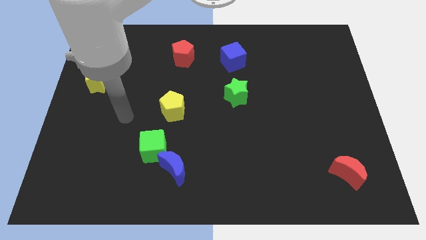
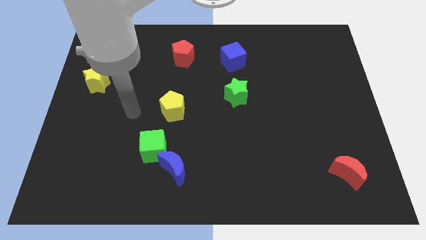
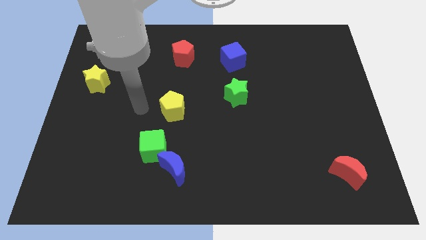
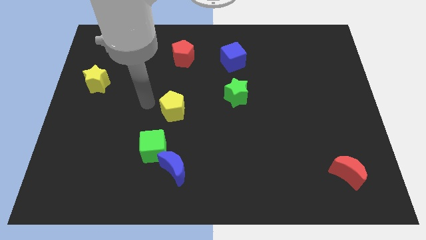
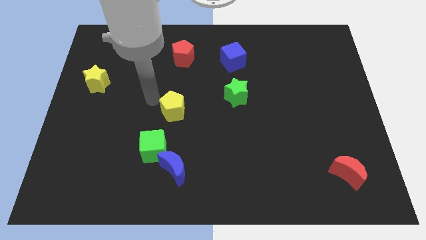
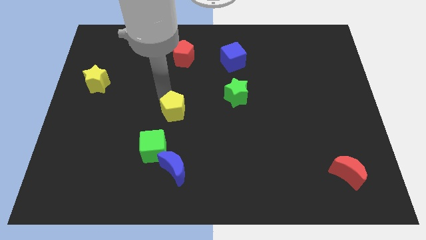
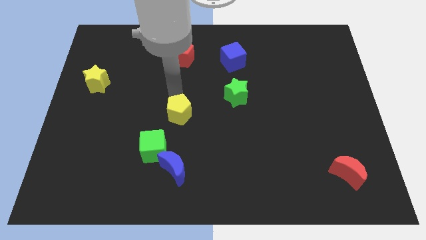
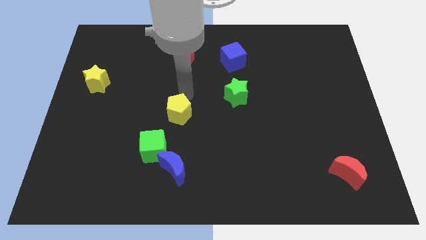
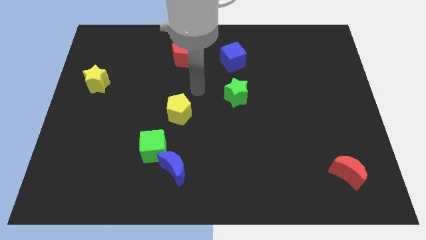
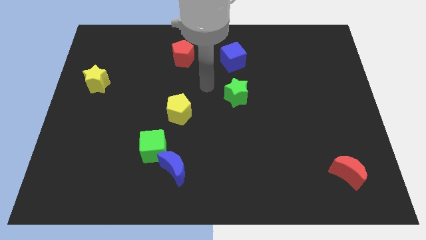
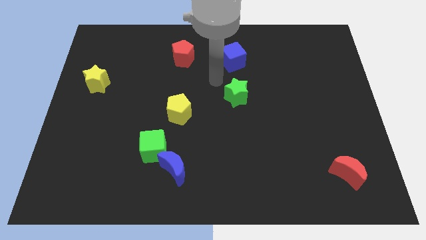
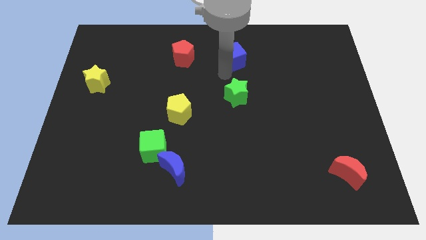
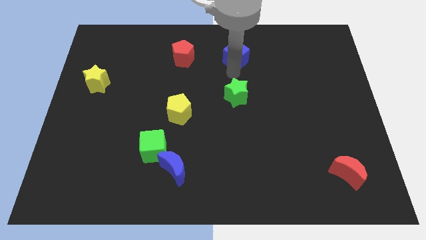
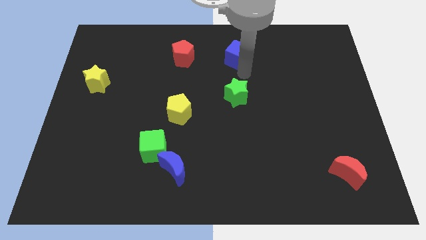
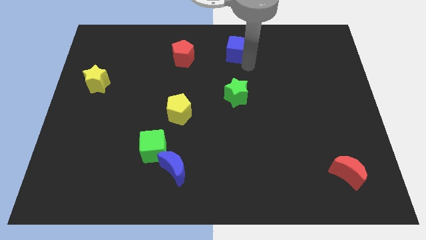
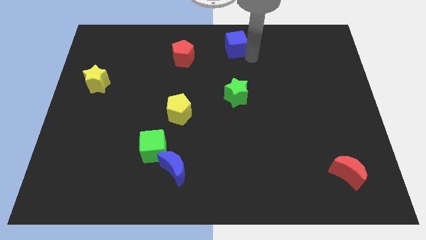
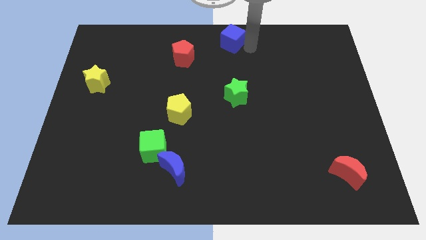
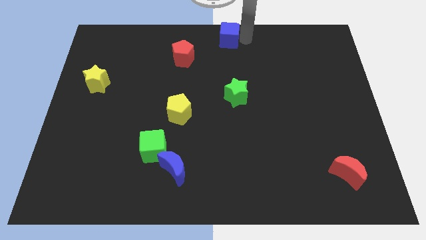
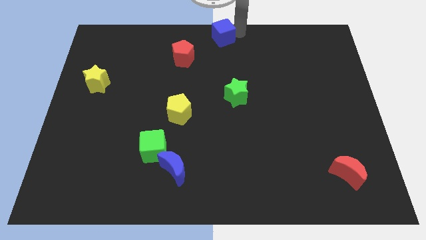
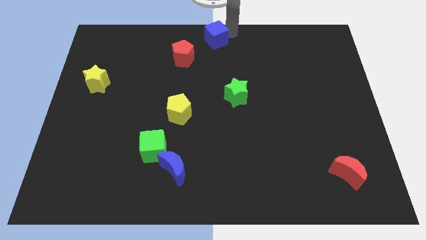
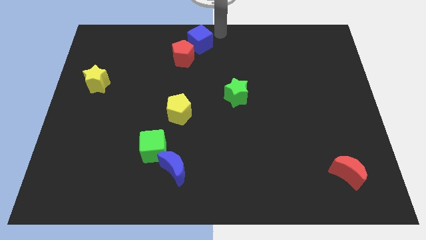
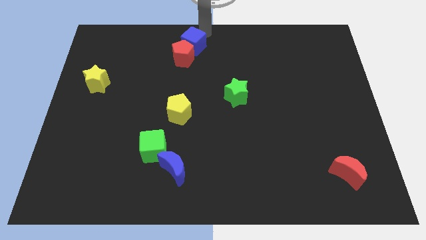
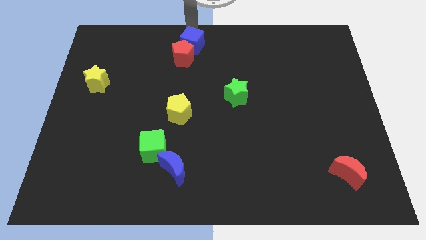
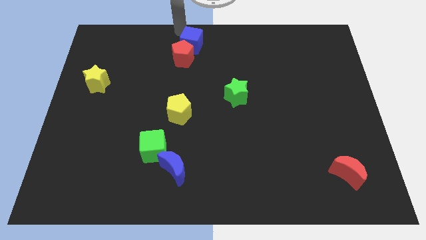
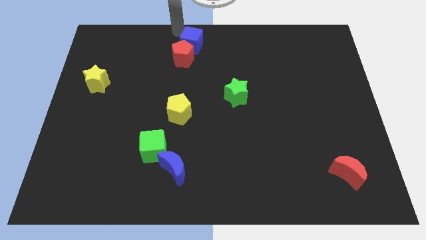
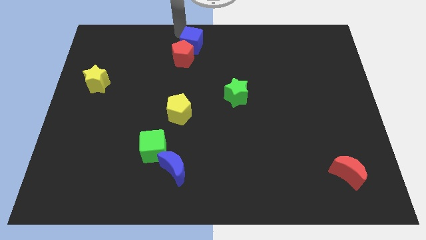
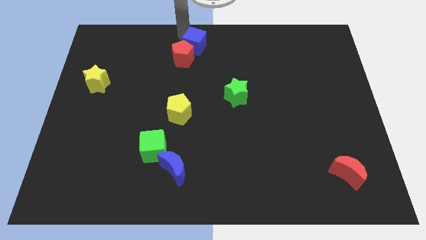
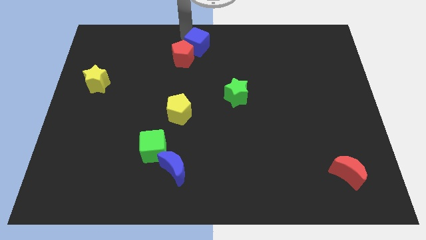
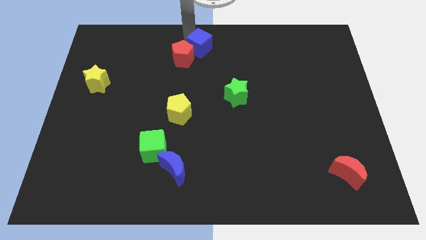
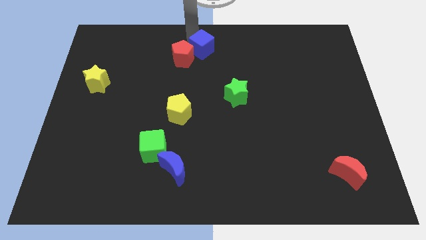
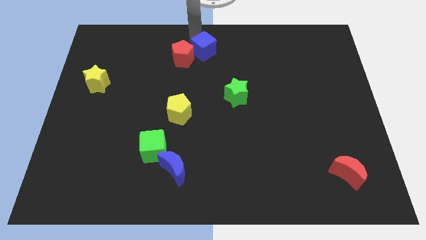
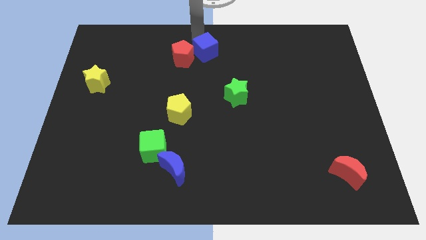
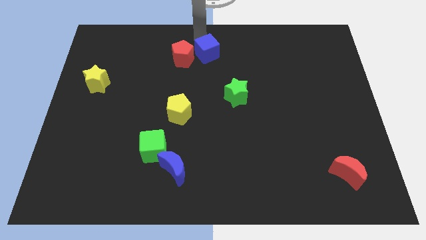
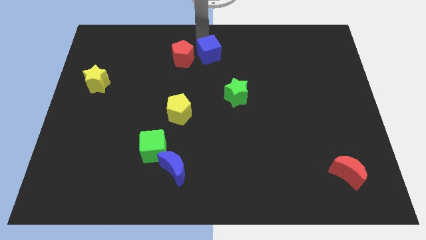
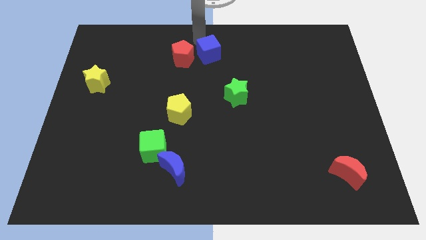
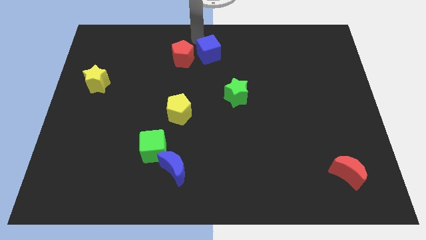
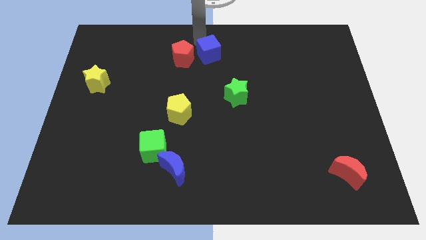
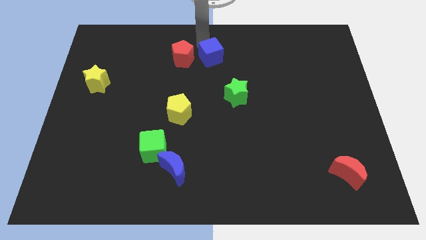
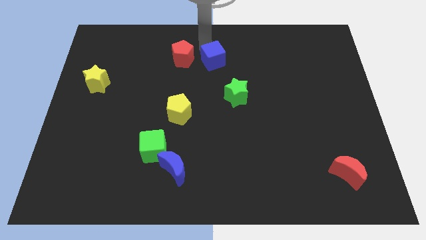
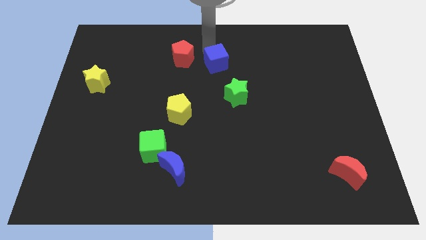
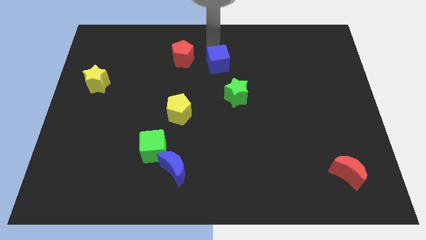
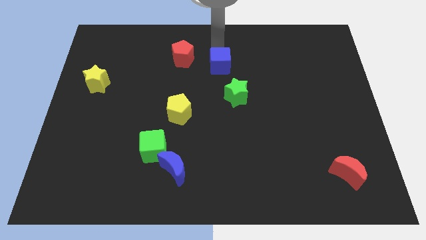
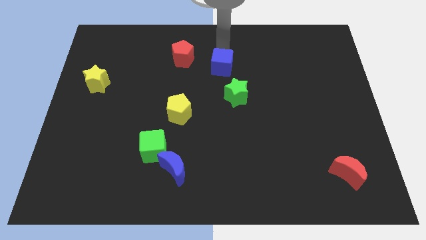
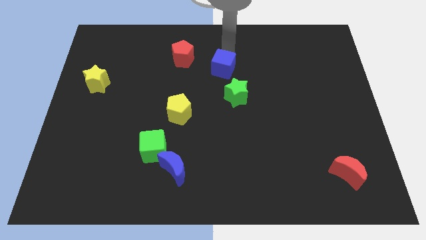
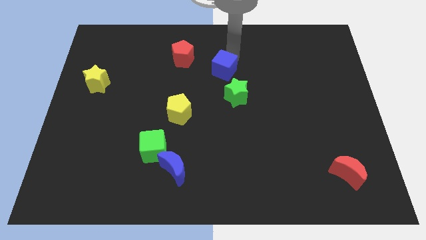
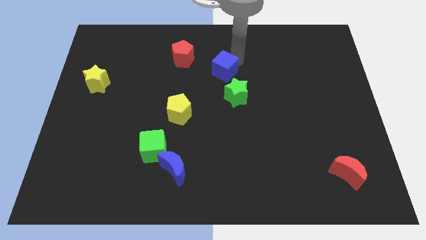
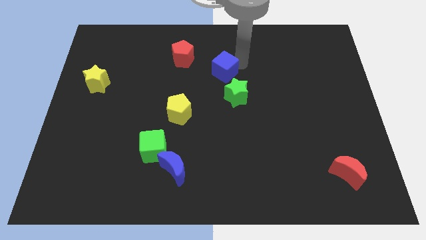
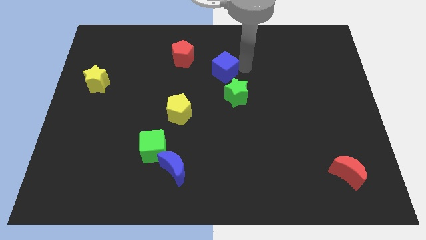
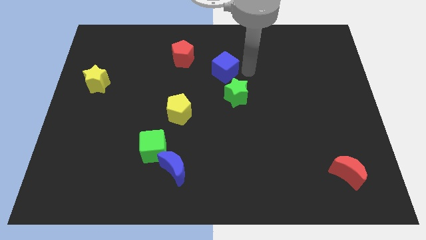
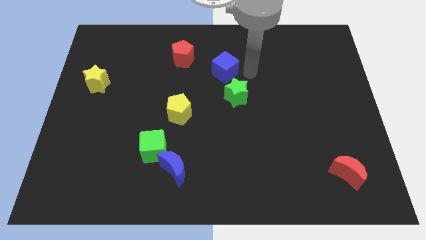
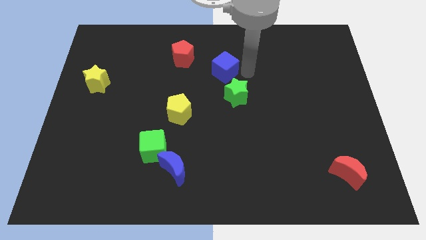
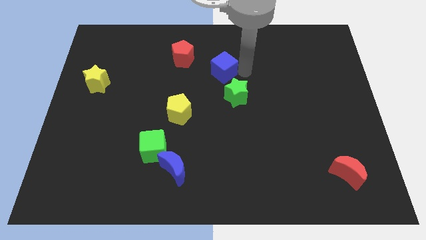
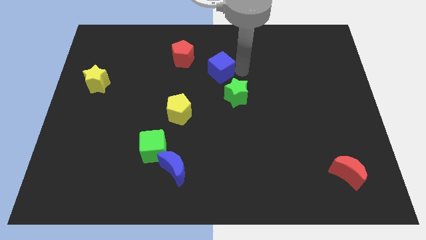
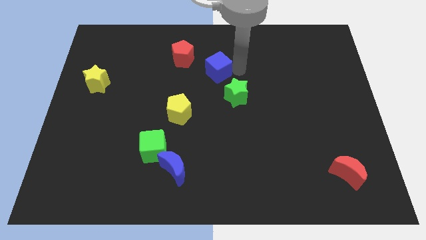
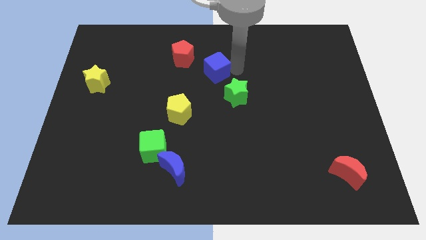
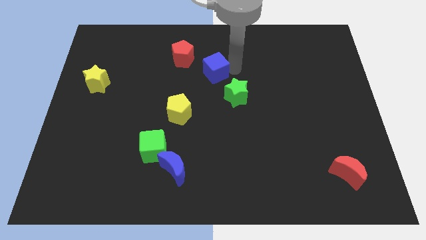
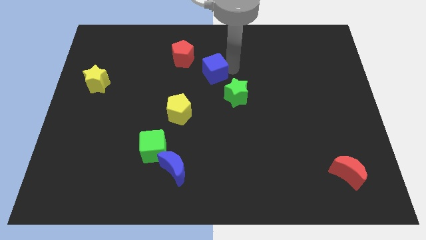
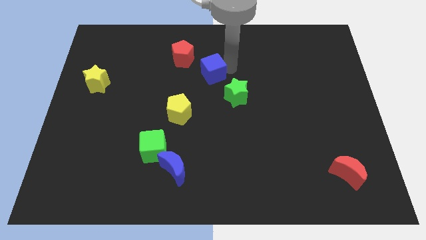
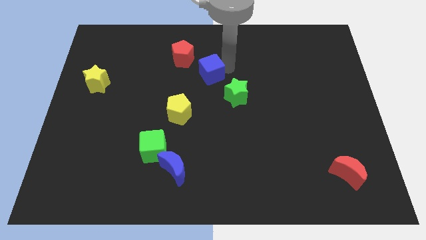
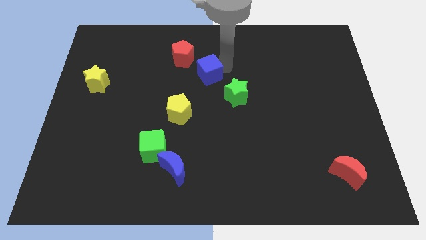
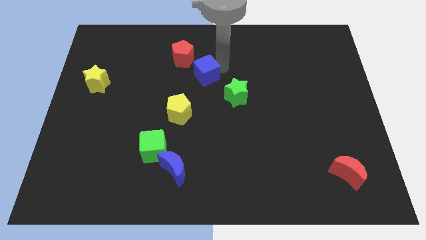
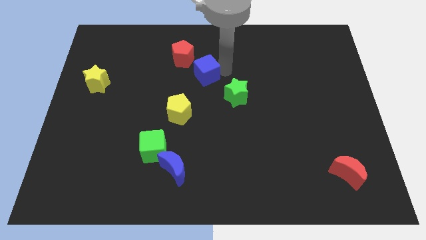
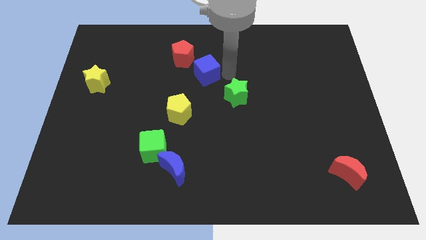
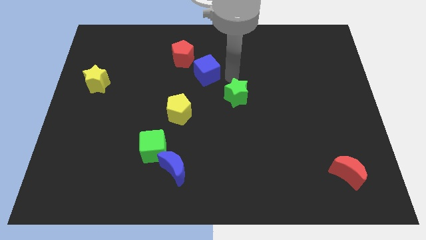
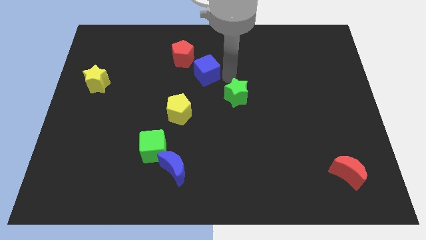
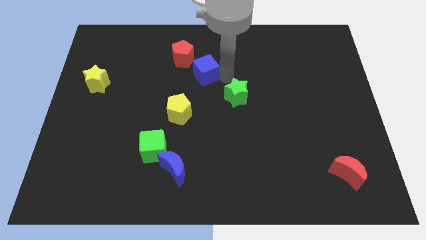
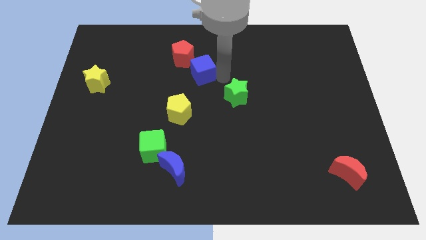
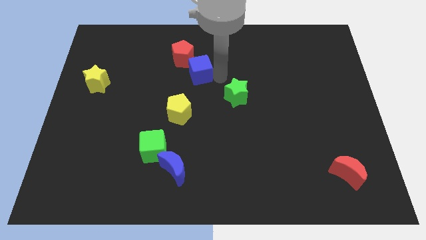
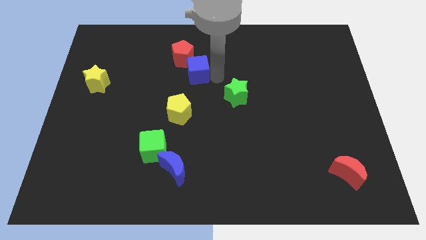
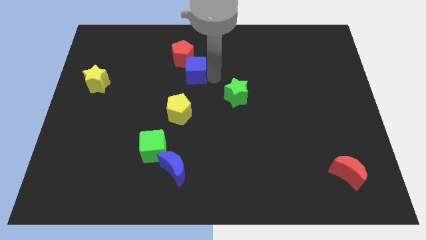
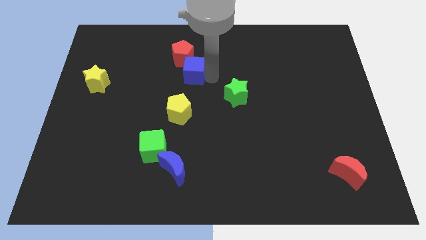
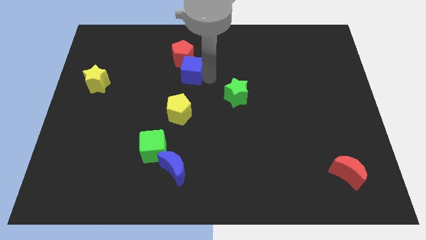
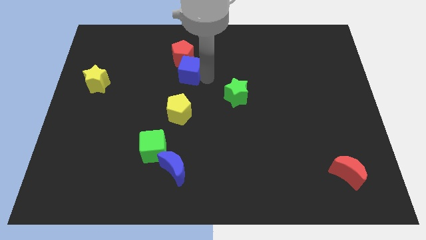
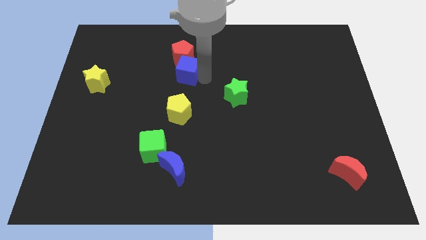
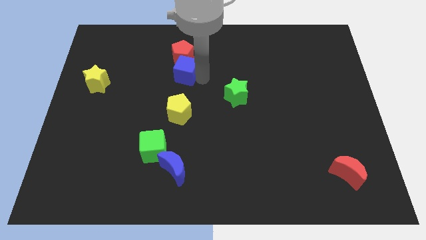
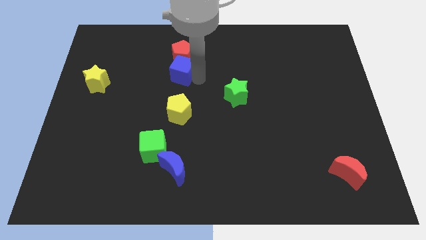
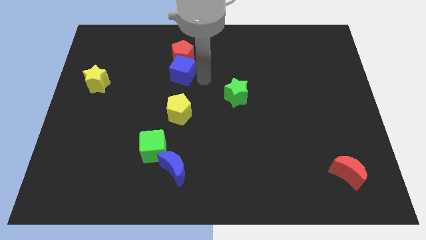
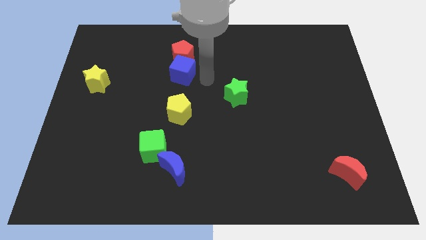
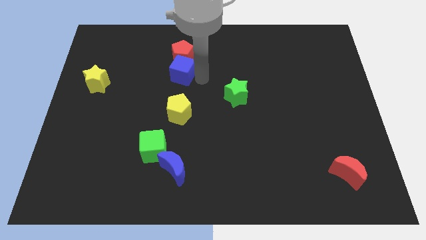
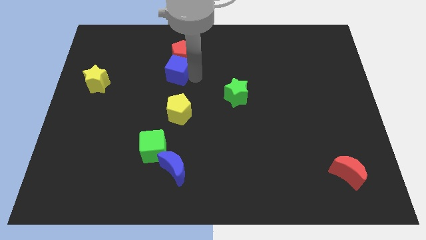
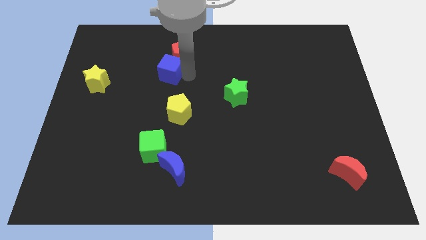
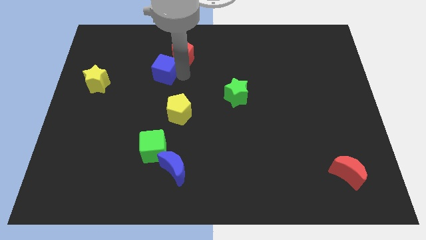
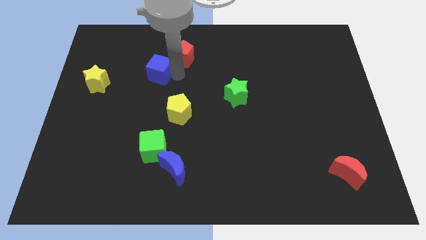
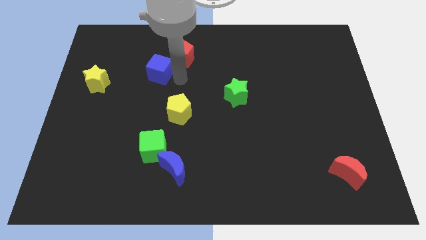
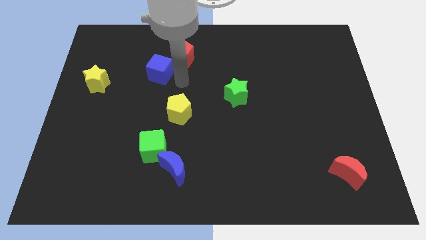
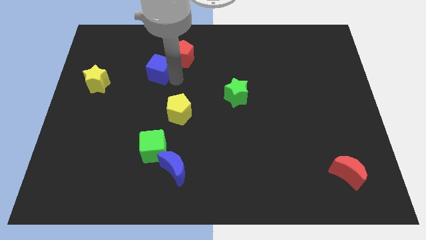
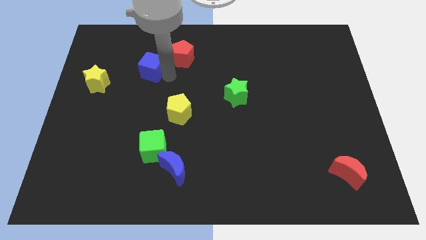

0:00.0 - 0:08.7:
push the blue cube left
